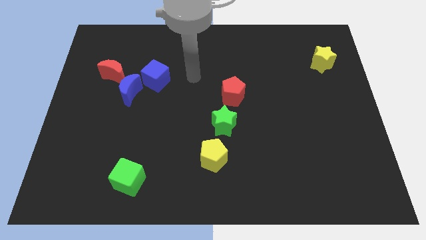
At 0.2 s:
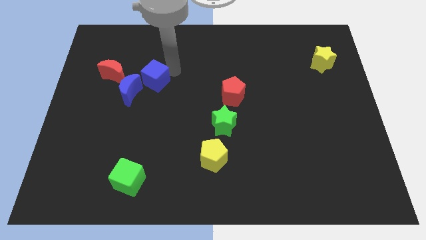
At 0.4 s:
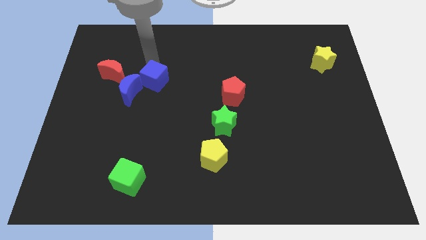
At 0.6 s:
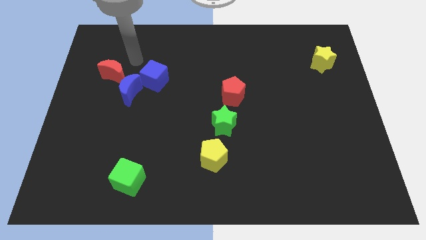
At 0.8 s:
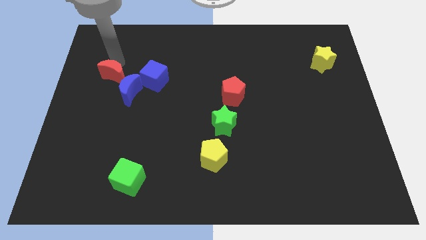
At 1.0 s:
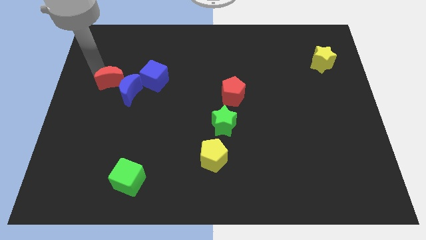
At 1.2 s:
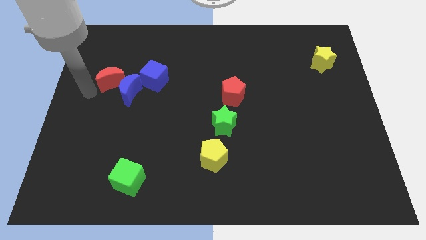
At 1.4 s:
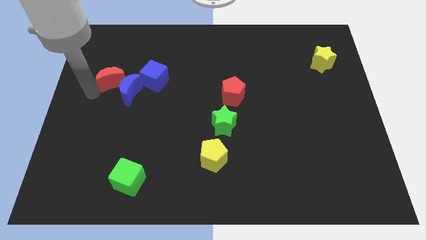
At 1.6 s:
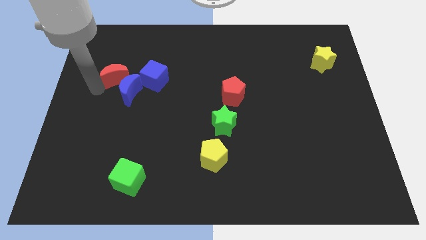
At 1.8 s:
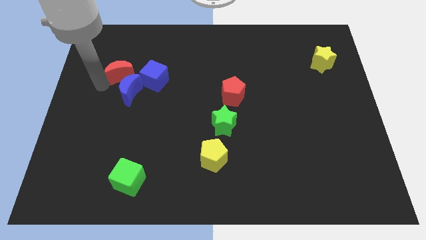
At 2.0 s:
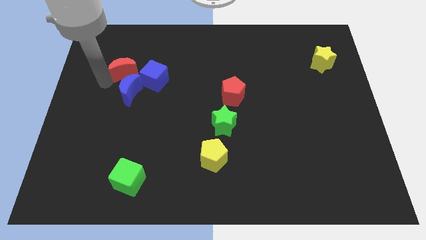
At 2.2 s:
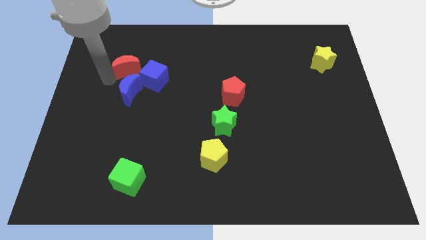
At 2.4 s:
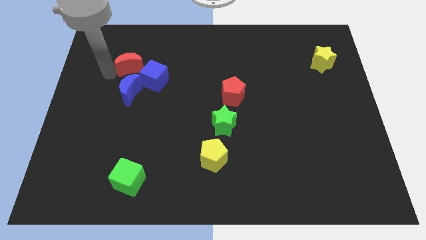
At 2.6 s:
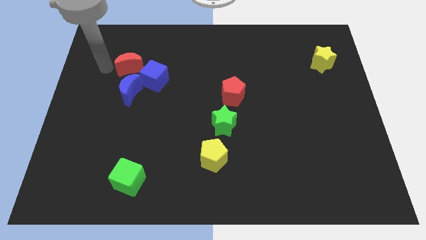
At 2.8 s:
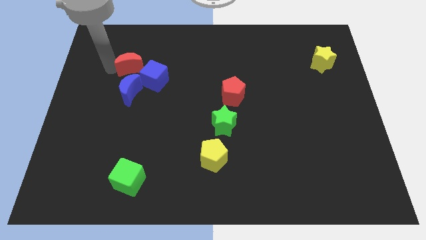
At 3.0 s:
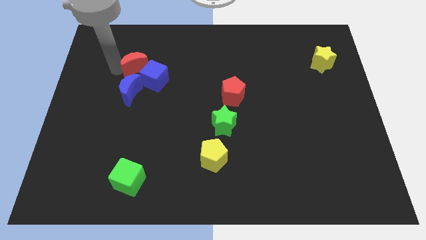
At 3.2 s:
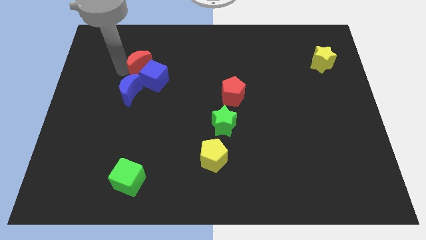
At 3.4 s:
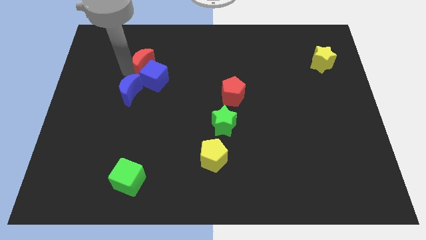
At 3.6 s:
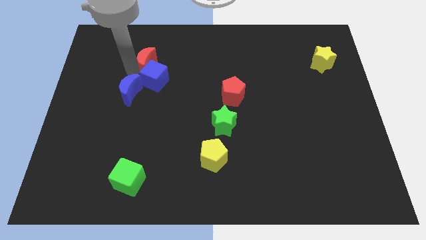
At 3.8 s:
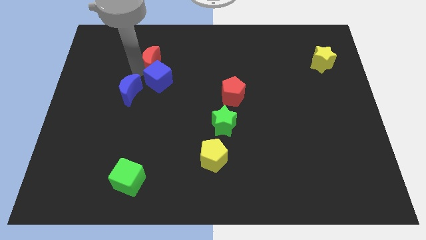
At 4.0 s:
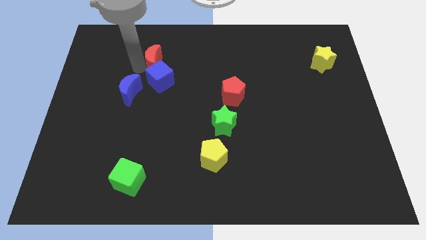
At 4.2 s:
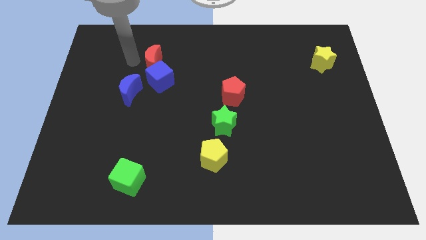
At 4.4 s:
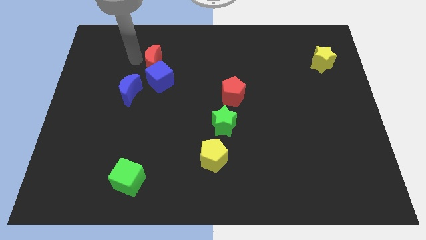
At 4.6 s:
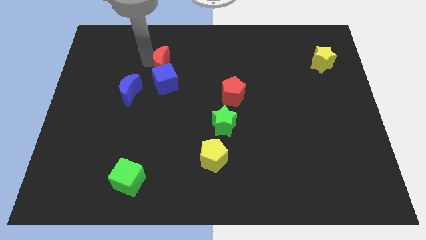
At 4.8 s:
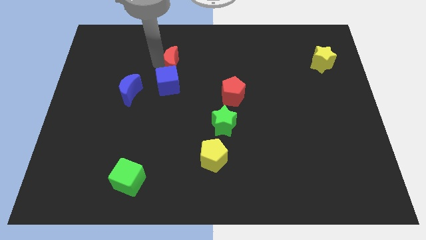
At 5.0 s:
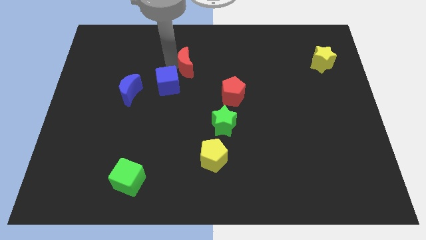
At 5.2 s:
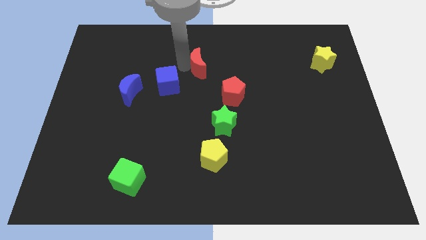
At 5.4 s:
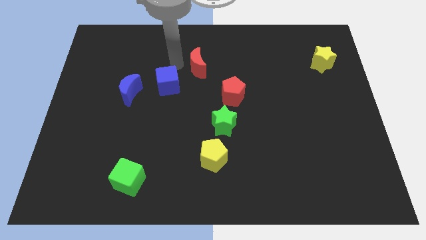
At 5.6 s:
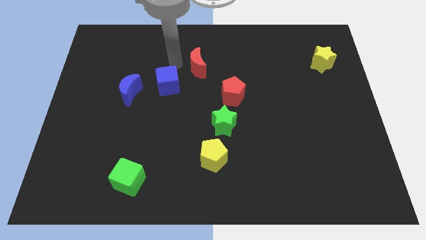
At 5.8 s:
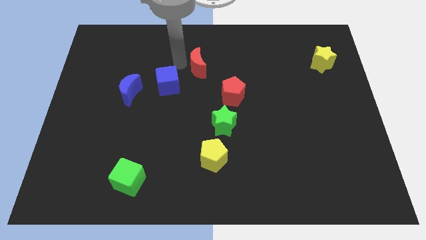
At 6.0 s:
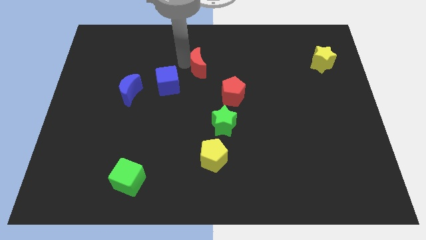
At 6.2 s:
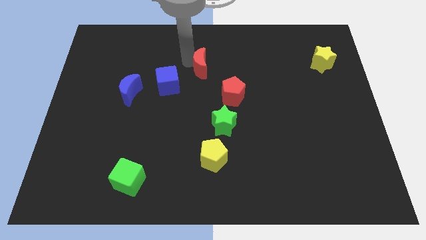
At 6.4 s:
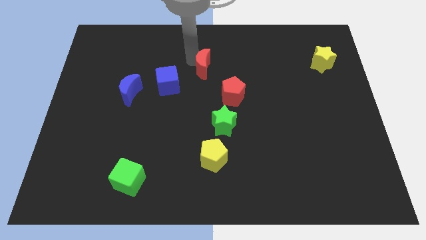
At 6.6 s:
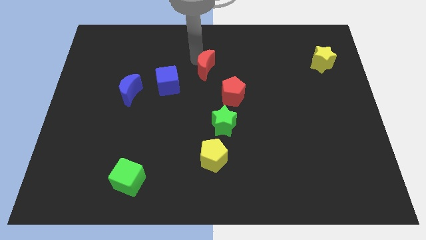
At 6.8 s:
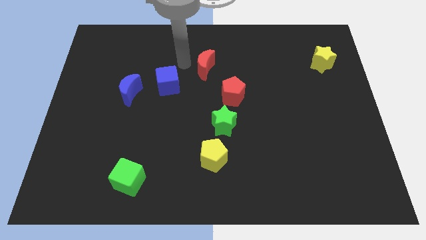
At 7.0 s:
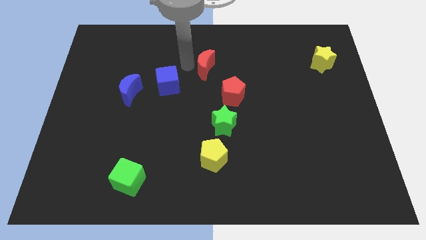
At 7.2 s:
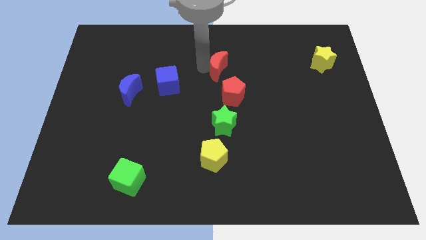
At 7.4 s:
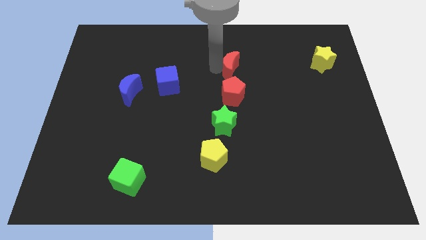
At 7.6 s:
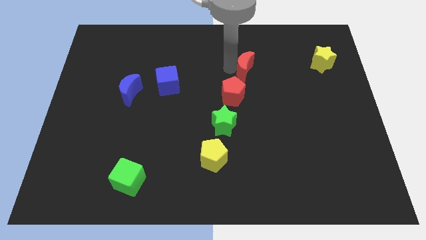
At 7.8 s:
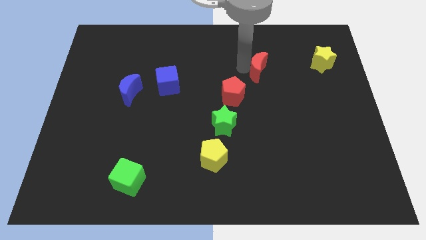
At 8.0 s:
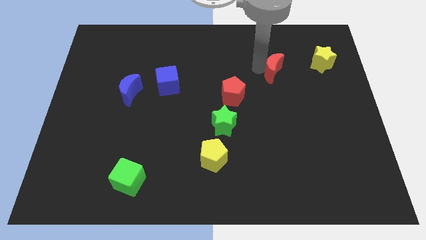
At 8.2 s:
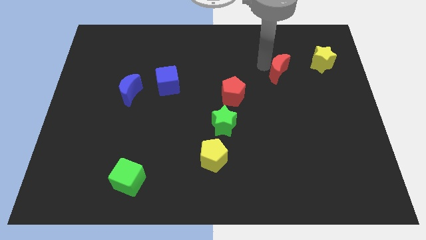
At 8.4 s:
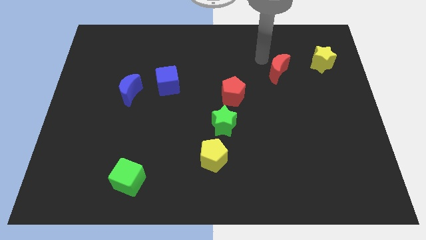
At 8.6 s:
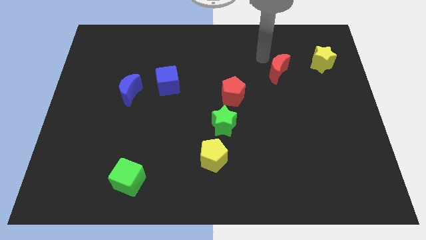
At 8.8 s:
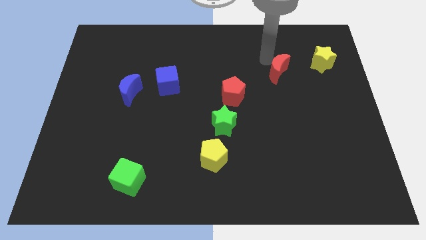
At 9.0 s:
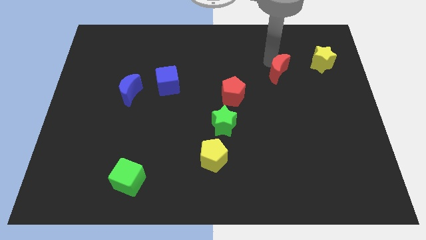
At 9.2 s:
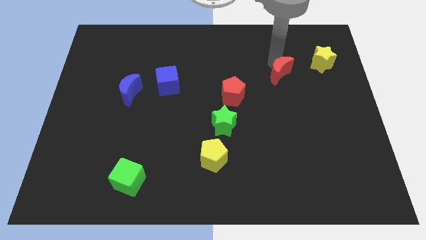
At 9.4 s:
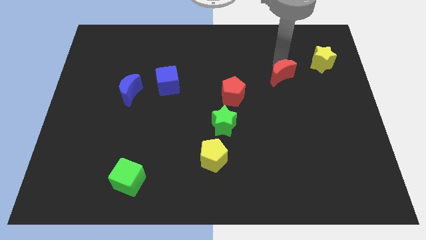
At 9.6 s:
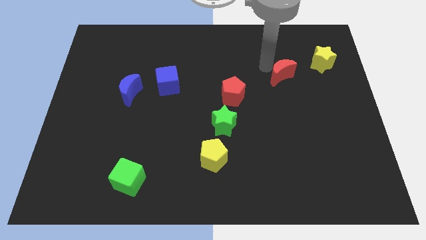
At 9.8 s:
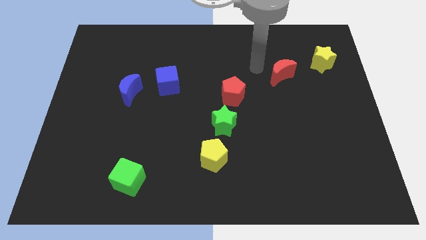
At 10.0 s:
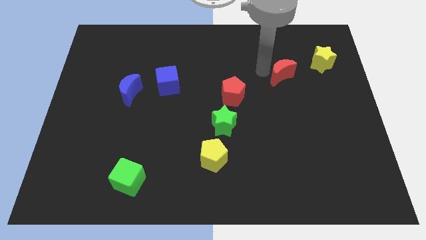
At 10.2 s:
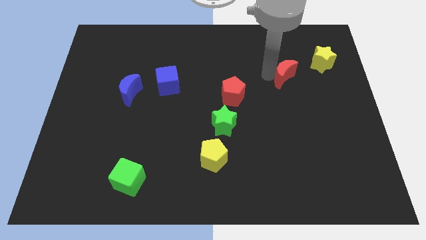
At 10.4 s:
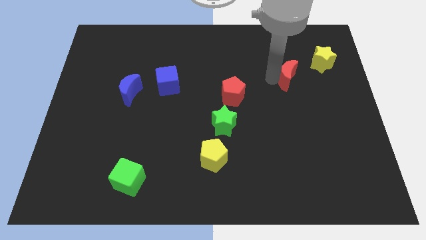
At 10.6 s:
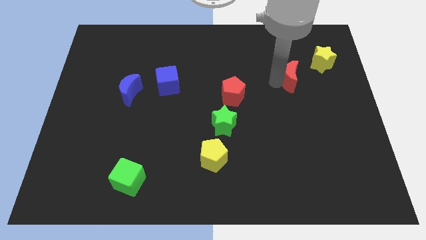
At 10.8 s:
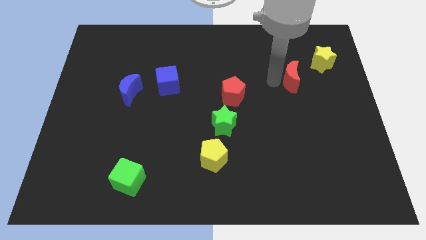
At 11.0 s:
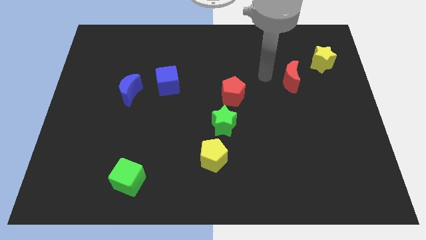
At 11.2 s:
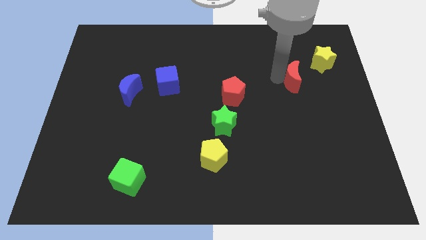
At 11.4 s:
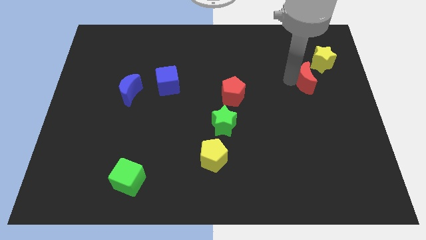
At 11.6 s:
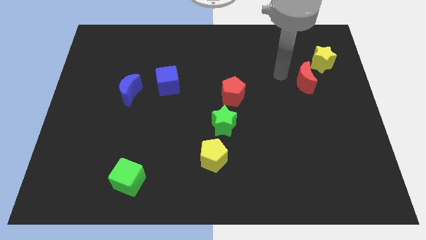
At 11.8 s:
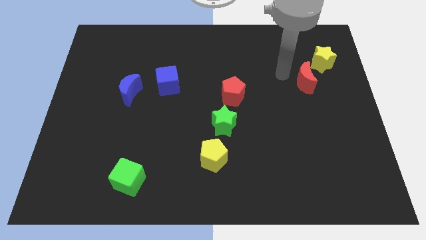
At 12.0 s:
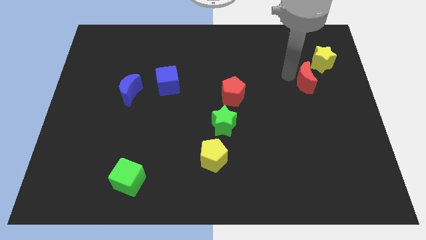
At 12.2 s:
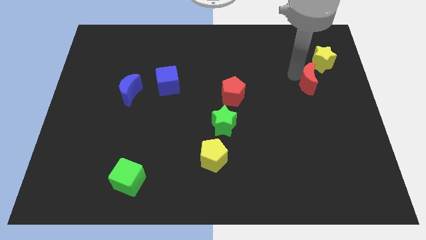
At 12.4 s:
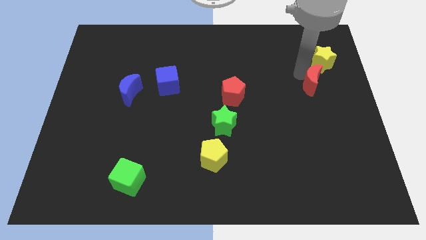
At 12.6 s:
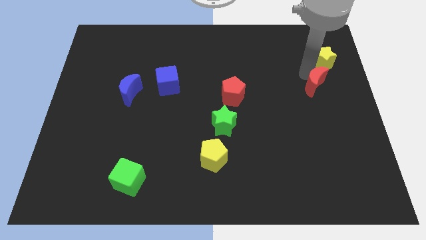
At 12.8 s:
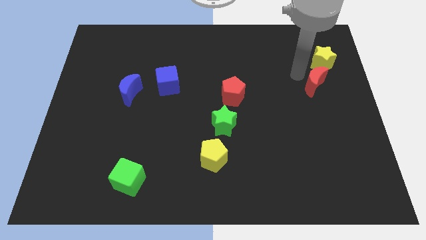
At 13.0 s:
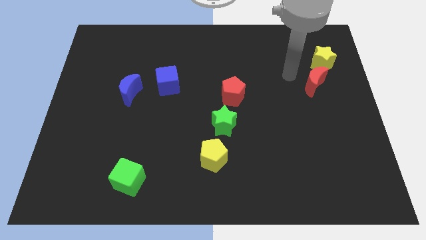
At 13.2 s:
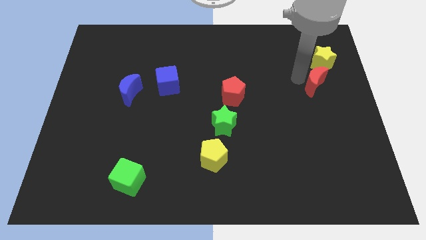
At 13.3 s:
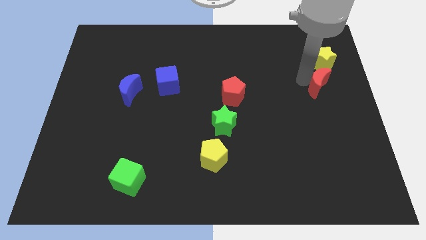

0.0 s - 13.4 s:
slide the red moon to the right side
